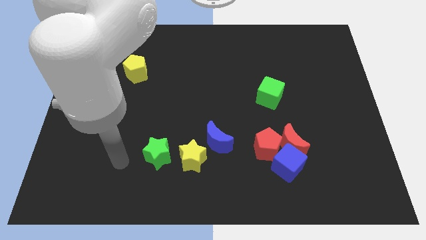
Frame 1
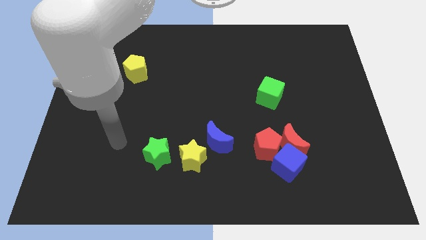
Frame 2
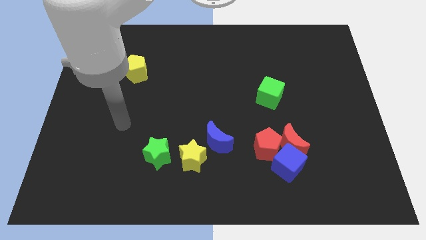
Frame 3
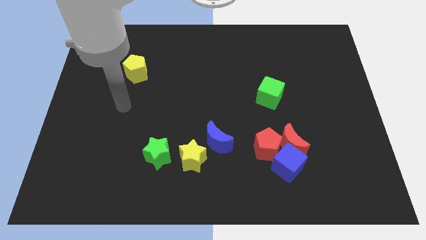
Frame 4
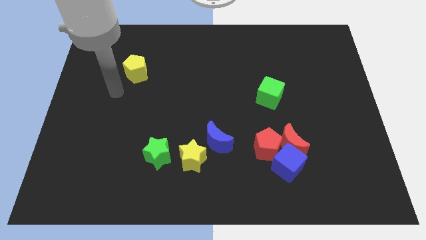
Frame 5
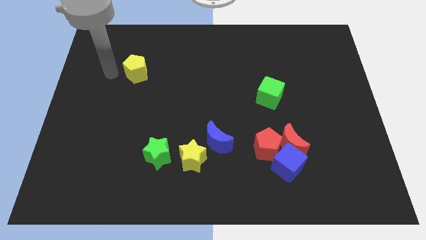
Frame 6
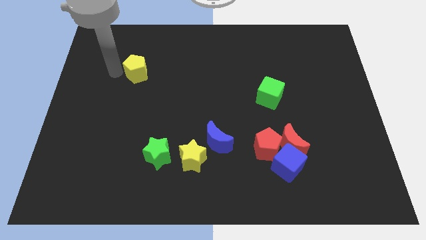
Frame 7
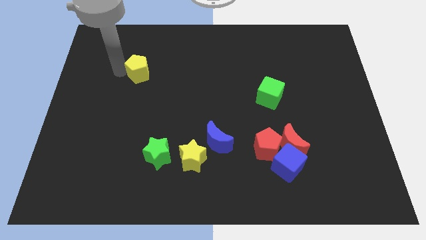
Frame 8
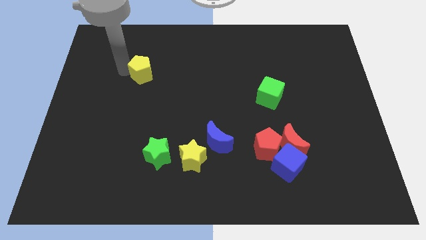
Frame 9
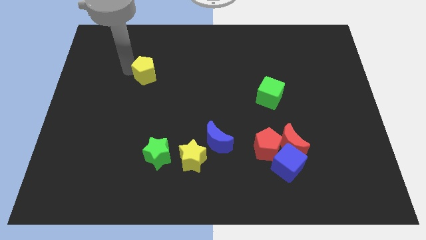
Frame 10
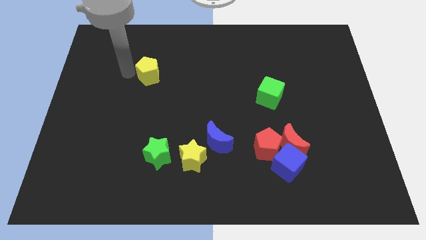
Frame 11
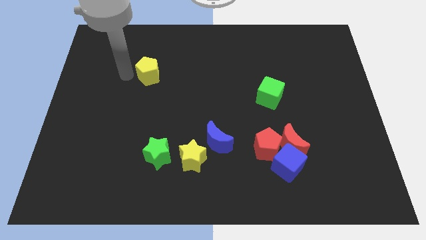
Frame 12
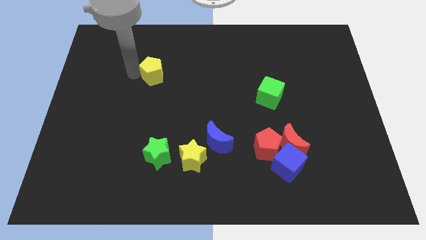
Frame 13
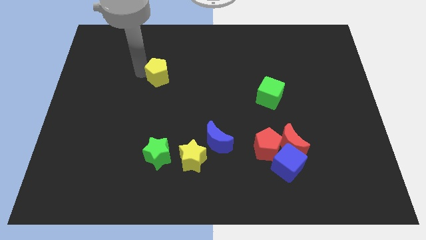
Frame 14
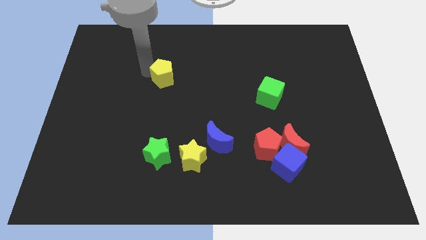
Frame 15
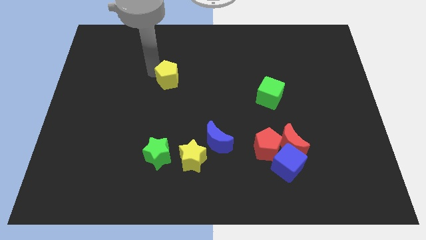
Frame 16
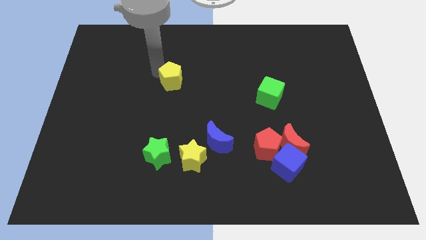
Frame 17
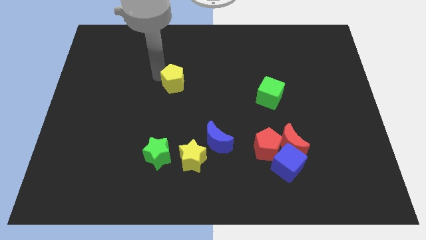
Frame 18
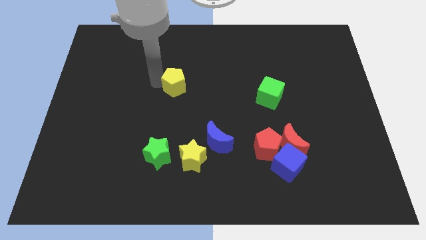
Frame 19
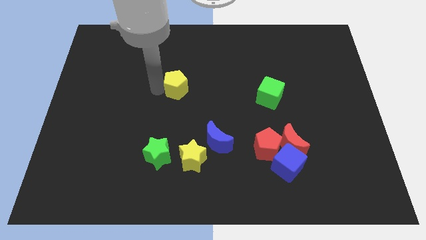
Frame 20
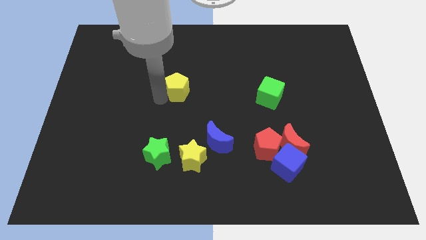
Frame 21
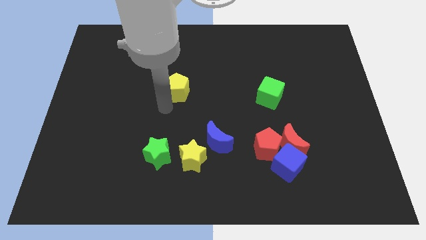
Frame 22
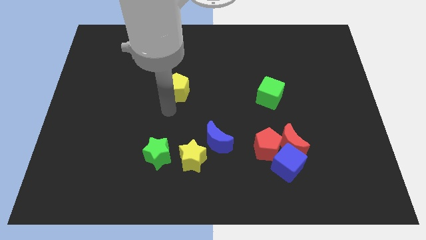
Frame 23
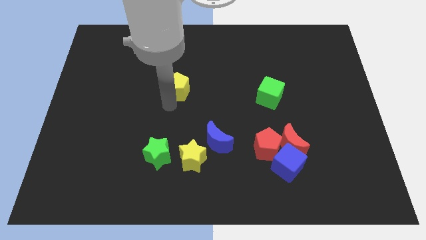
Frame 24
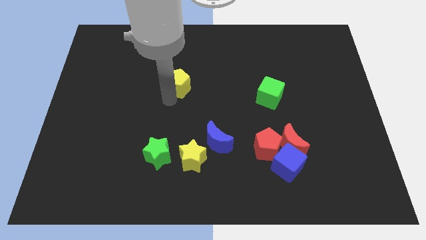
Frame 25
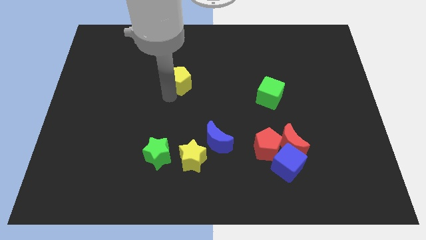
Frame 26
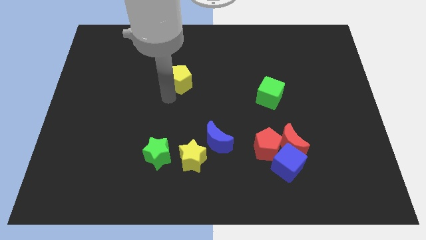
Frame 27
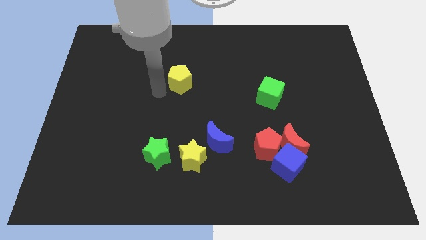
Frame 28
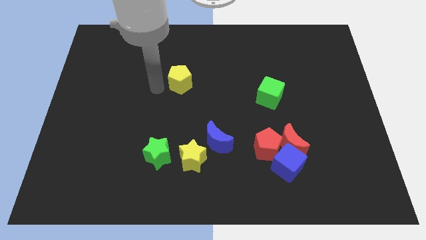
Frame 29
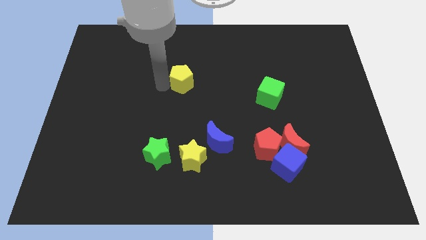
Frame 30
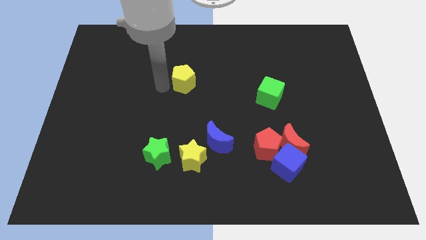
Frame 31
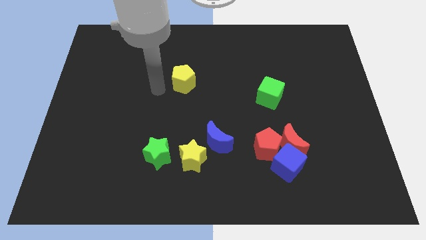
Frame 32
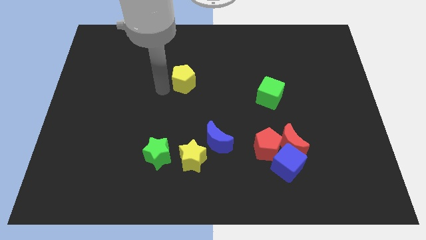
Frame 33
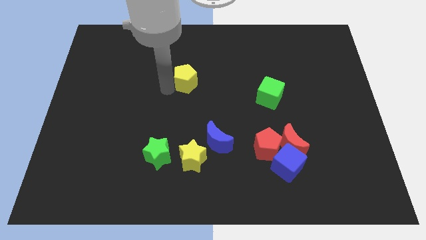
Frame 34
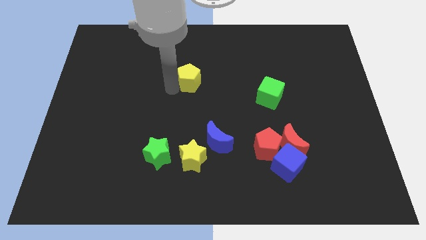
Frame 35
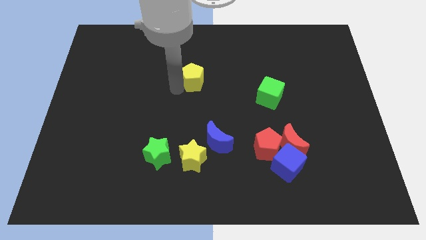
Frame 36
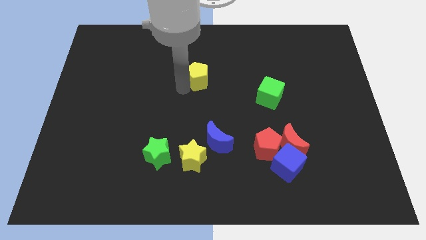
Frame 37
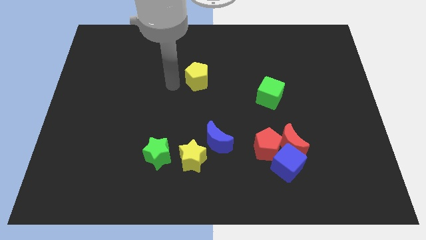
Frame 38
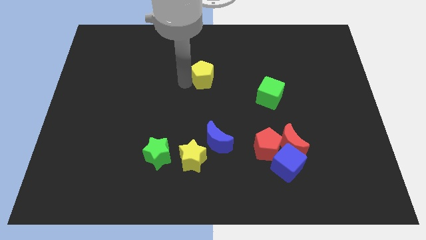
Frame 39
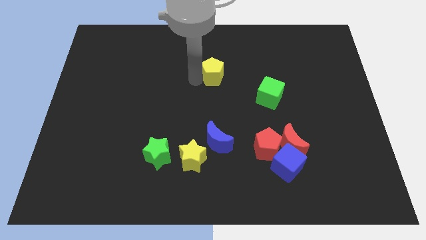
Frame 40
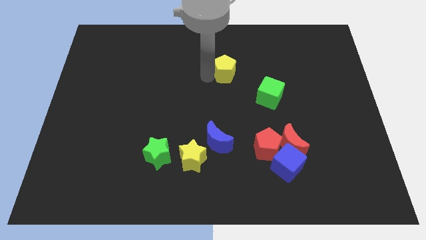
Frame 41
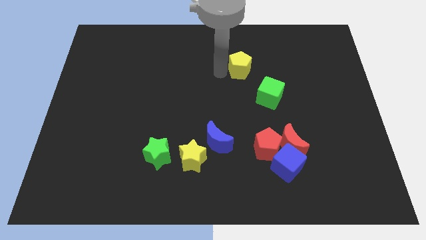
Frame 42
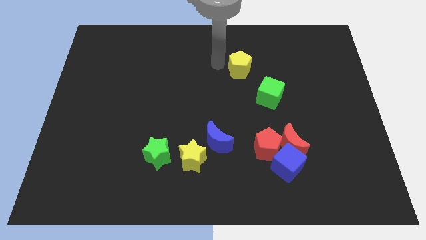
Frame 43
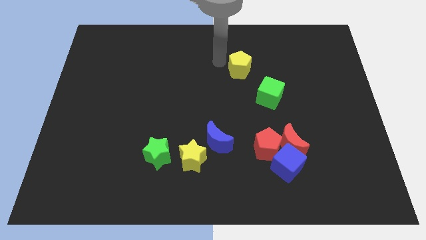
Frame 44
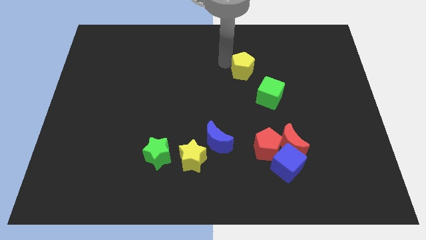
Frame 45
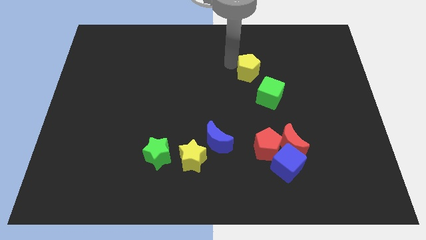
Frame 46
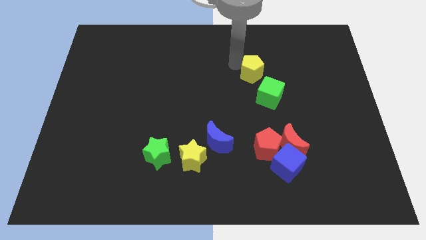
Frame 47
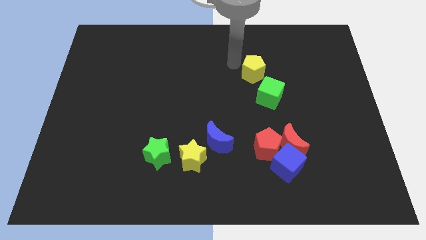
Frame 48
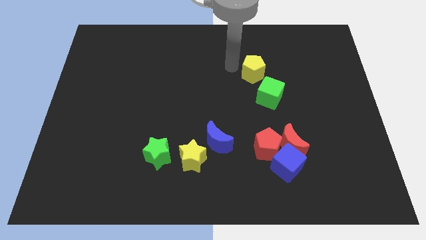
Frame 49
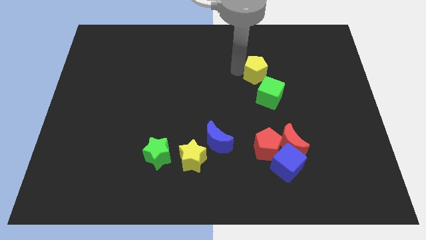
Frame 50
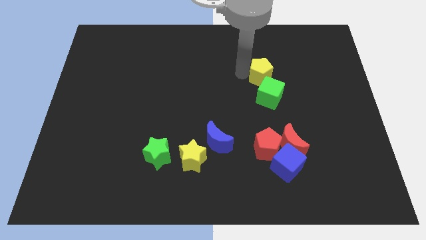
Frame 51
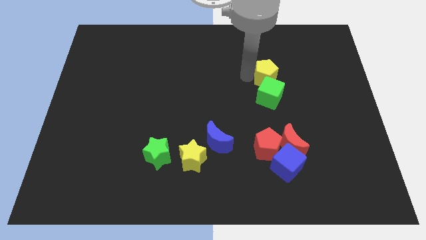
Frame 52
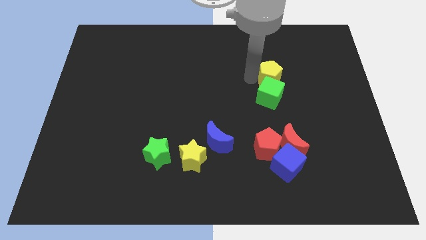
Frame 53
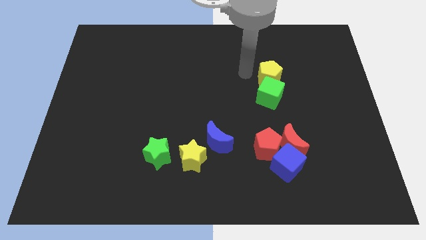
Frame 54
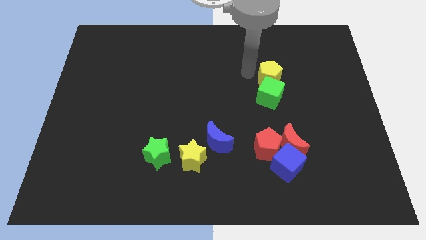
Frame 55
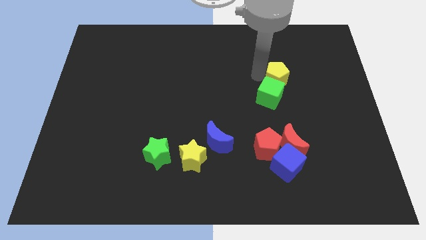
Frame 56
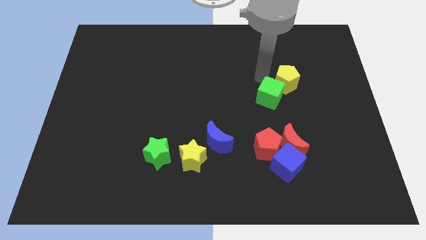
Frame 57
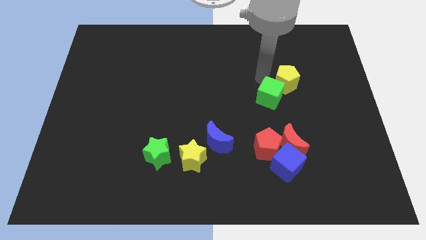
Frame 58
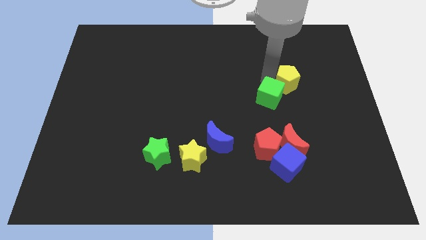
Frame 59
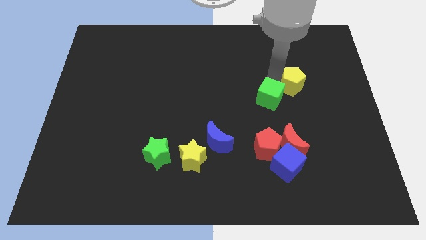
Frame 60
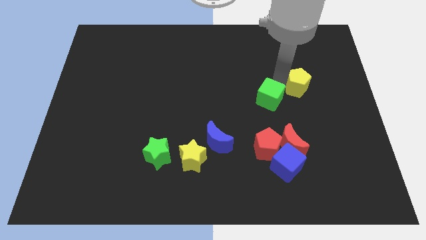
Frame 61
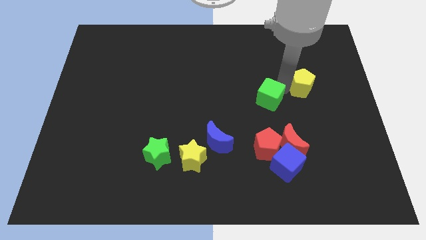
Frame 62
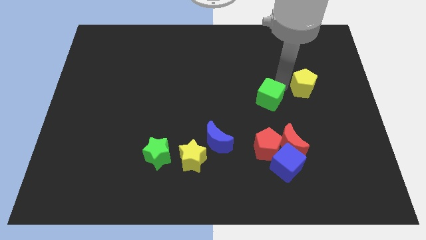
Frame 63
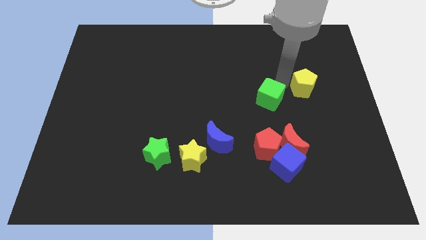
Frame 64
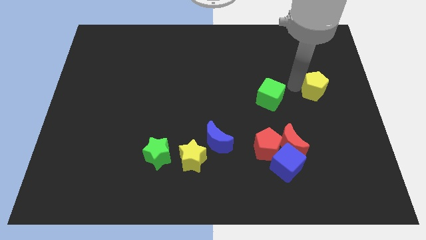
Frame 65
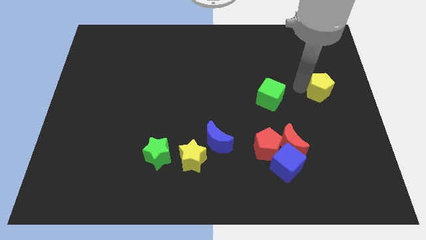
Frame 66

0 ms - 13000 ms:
push the yellow pentagon to the right side of the board

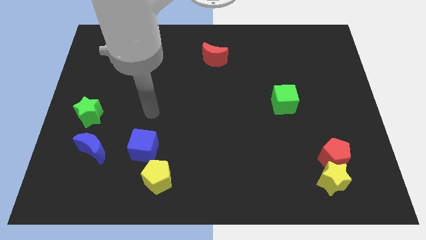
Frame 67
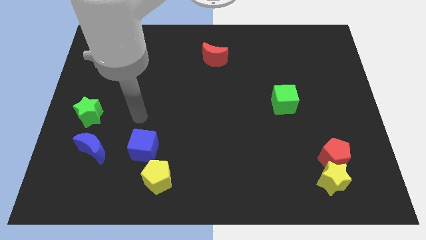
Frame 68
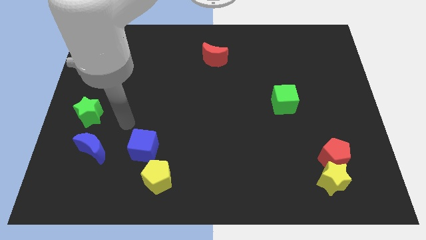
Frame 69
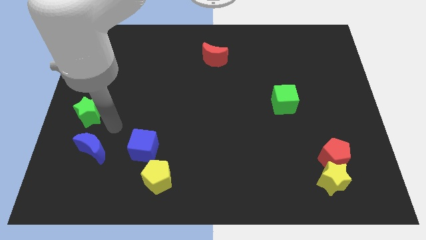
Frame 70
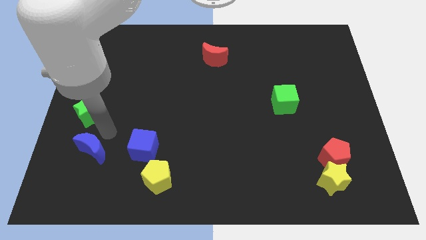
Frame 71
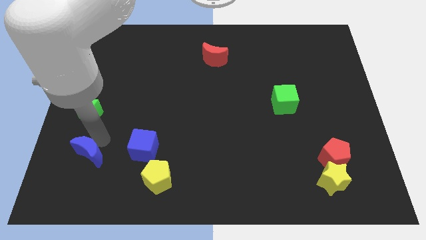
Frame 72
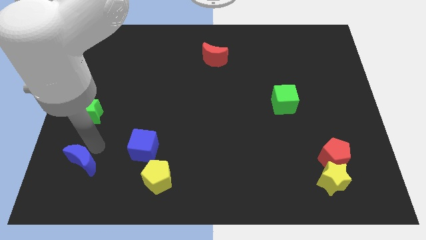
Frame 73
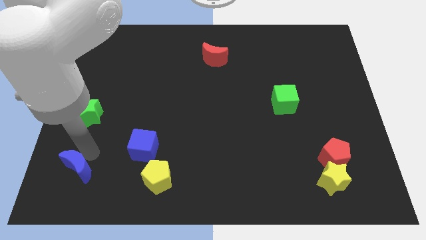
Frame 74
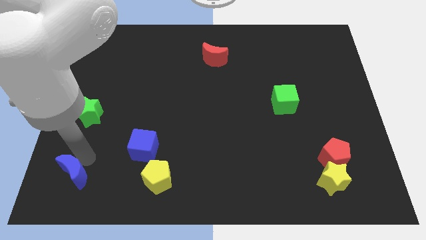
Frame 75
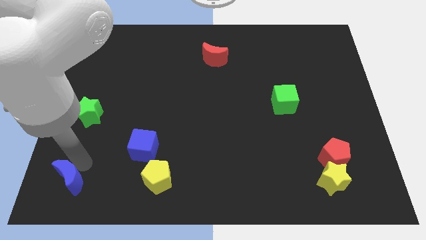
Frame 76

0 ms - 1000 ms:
move the blue moon to the lower left corner
